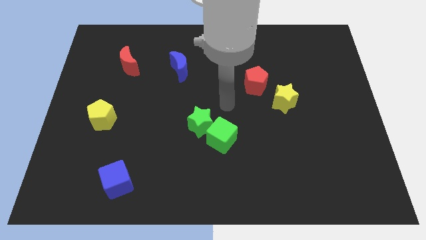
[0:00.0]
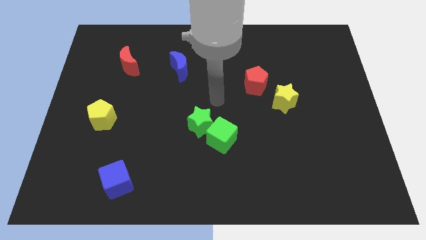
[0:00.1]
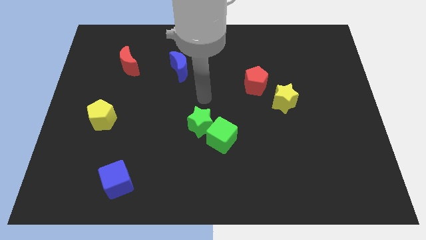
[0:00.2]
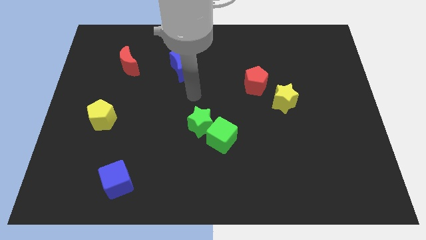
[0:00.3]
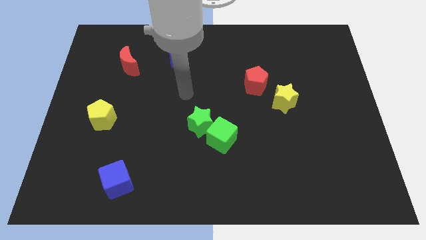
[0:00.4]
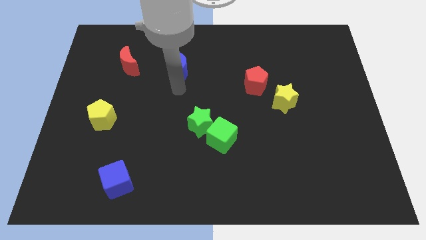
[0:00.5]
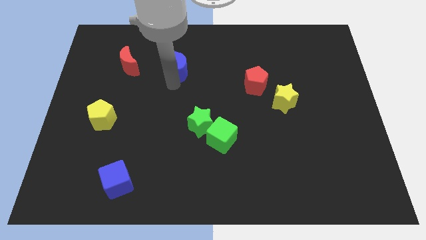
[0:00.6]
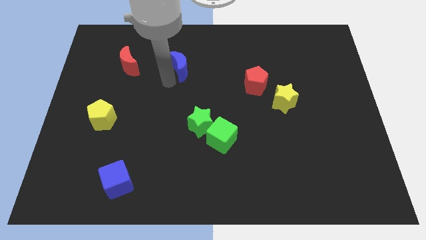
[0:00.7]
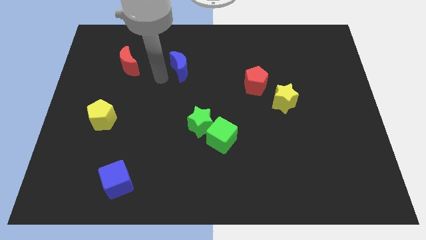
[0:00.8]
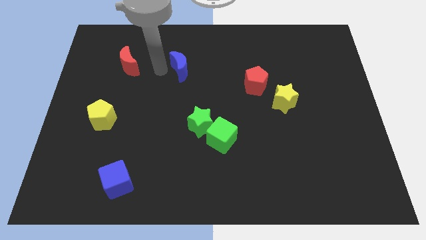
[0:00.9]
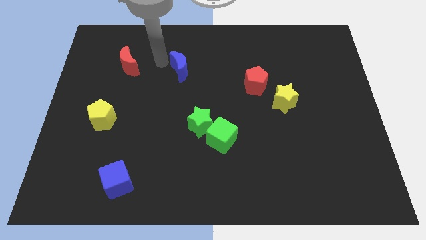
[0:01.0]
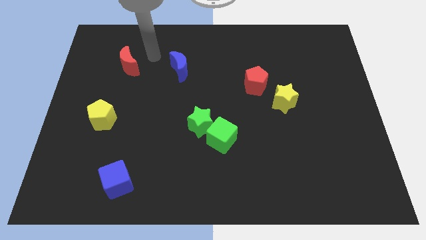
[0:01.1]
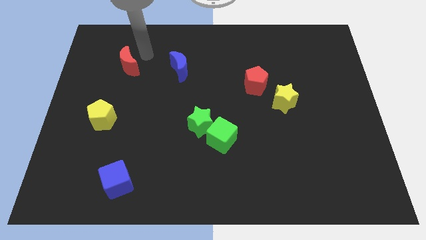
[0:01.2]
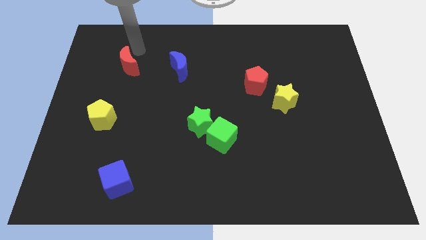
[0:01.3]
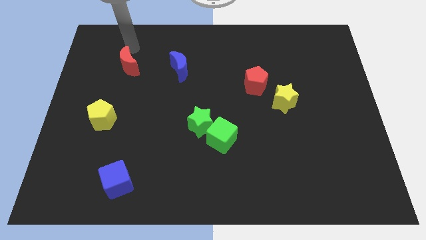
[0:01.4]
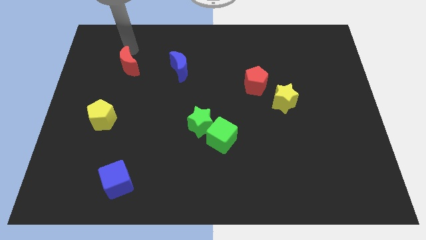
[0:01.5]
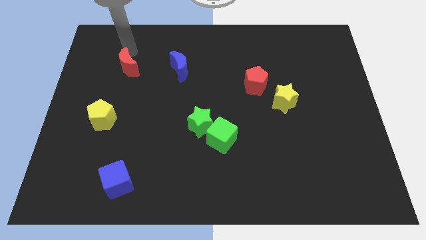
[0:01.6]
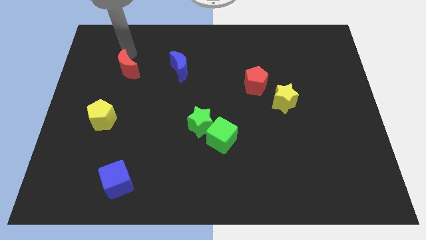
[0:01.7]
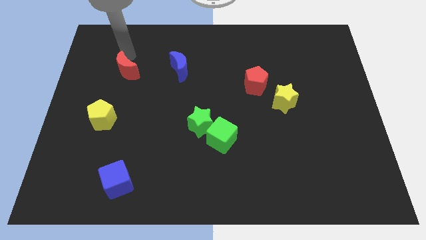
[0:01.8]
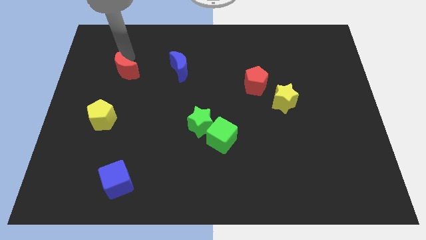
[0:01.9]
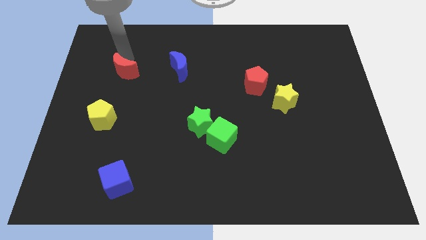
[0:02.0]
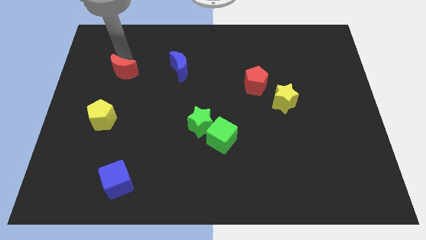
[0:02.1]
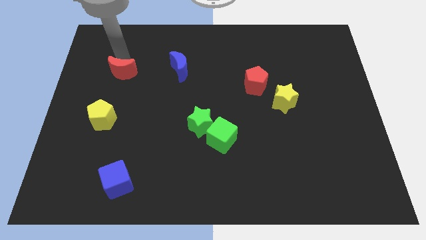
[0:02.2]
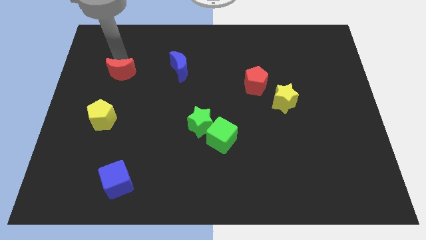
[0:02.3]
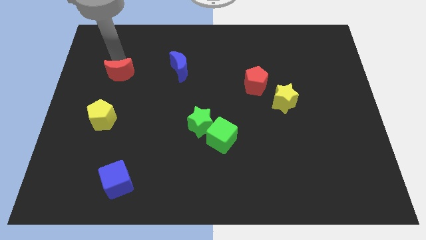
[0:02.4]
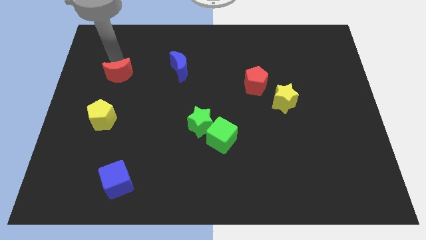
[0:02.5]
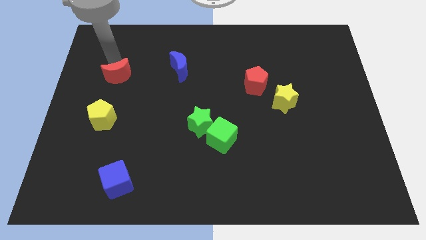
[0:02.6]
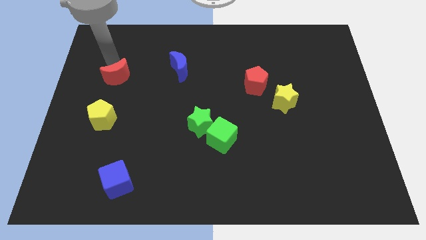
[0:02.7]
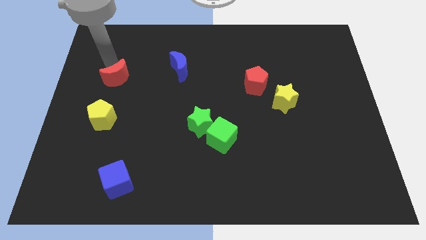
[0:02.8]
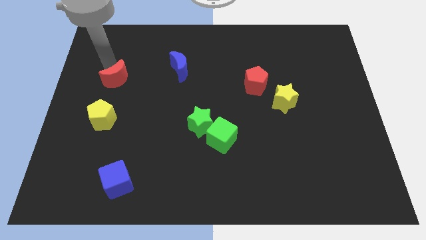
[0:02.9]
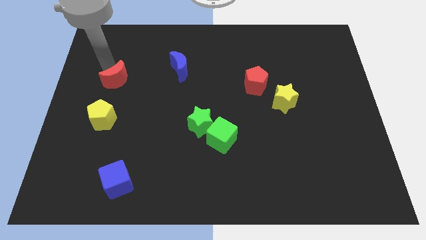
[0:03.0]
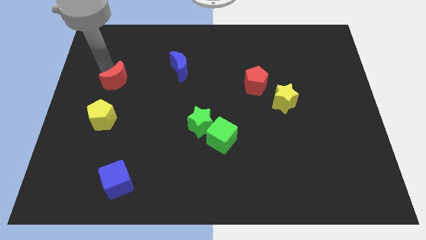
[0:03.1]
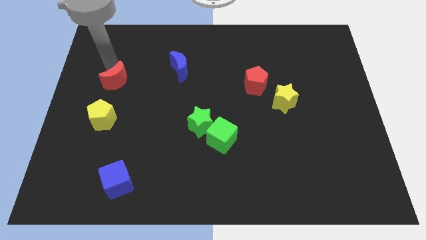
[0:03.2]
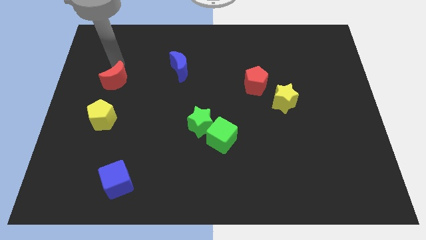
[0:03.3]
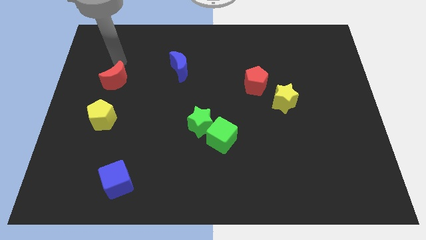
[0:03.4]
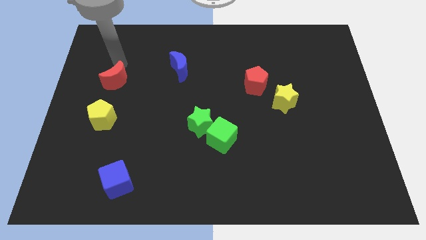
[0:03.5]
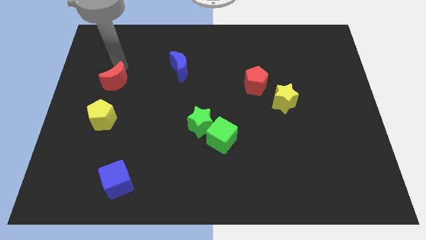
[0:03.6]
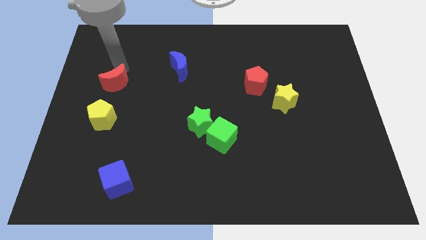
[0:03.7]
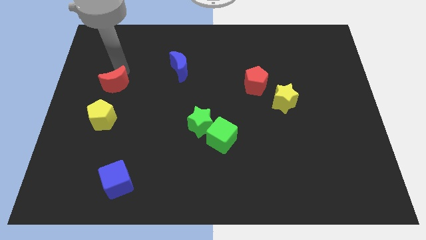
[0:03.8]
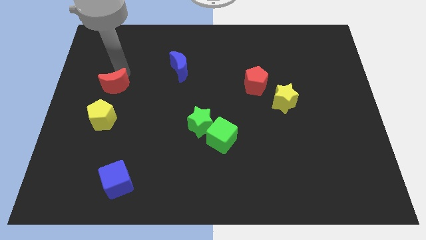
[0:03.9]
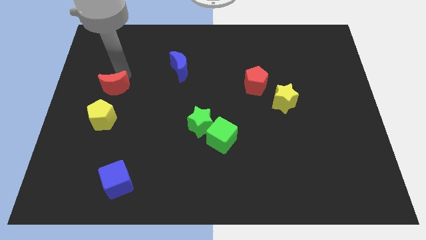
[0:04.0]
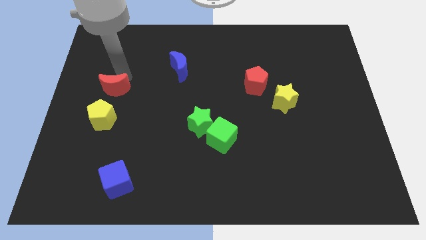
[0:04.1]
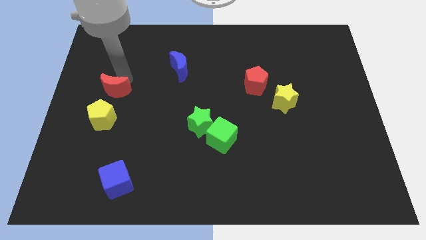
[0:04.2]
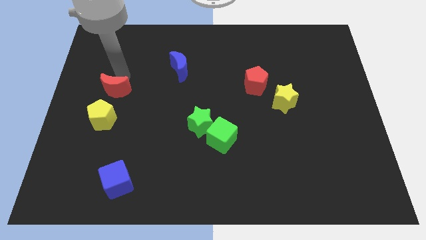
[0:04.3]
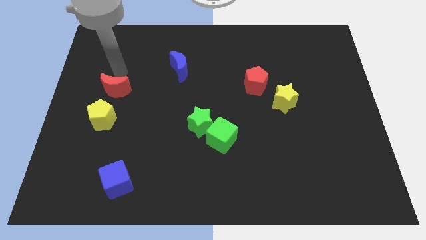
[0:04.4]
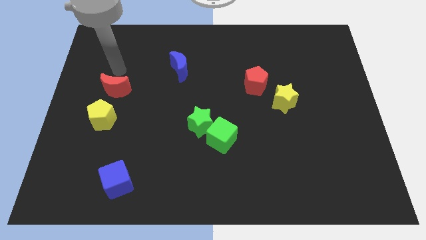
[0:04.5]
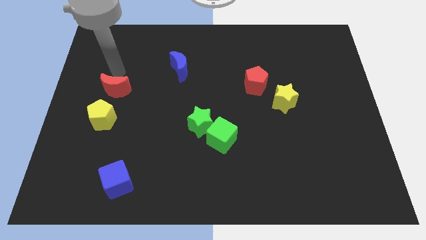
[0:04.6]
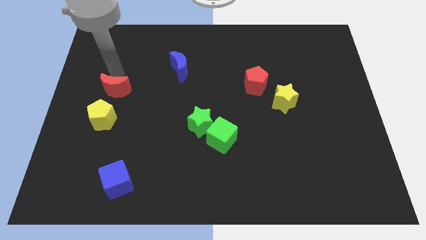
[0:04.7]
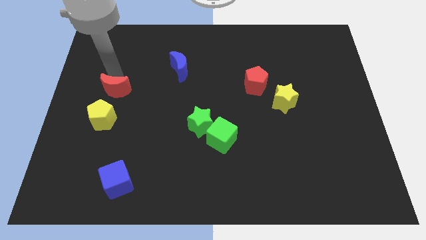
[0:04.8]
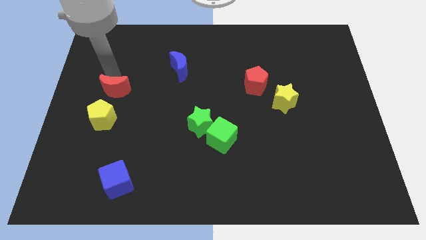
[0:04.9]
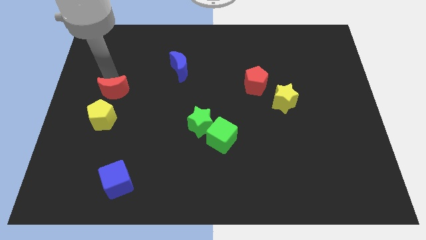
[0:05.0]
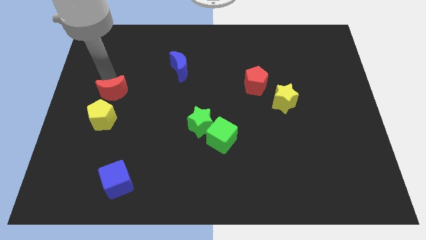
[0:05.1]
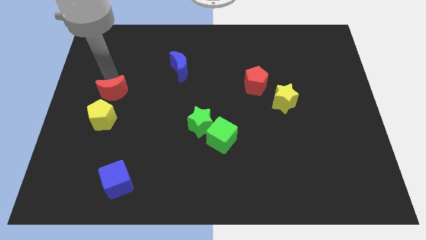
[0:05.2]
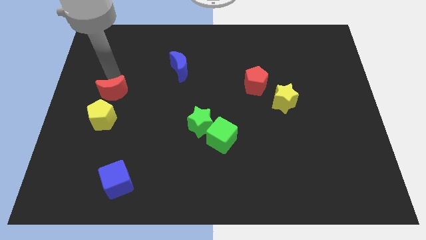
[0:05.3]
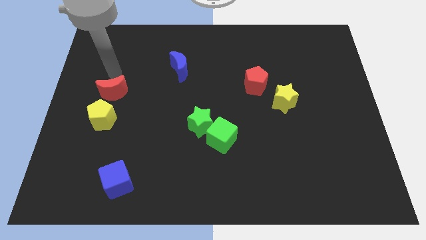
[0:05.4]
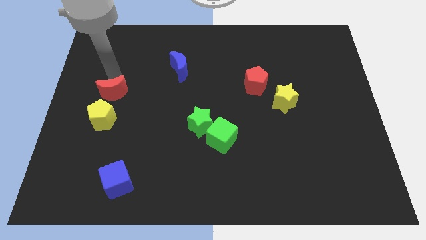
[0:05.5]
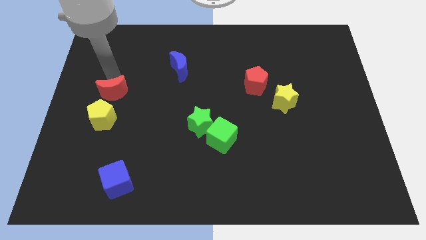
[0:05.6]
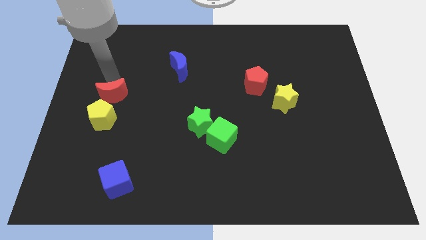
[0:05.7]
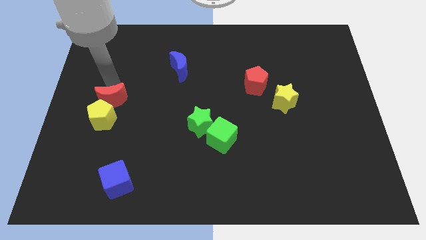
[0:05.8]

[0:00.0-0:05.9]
put the red moon towards the yellow pentagon

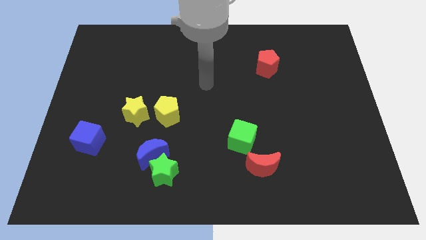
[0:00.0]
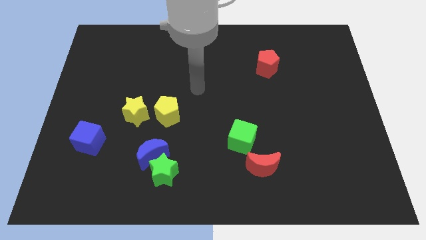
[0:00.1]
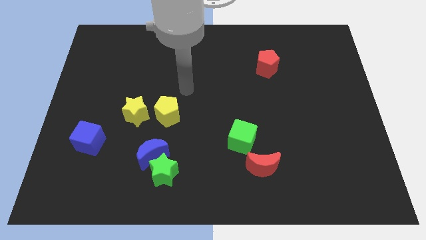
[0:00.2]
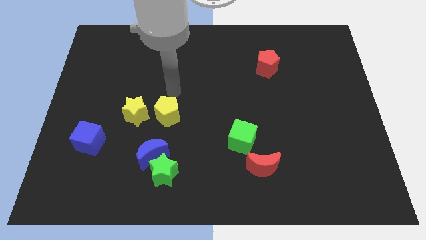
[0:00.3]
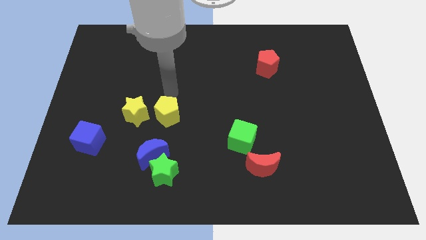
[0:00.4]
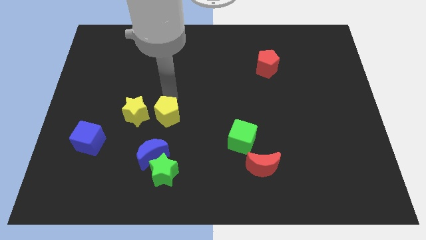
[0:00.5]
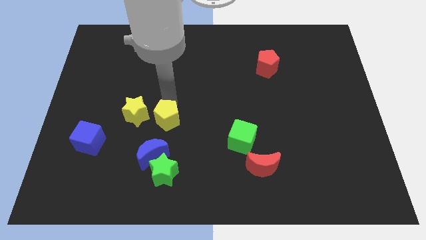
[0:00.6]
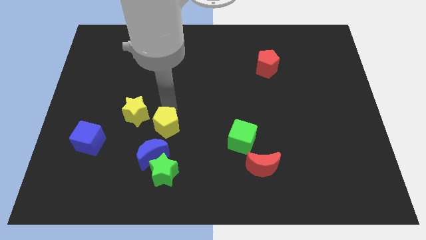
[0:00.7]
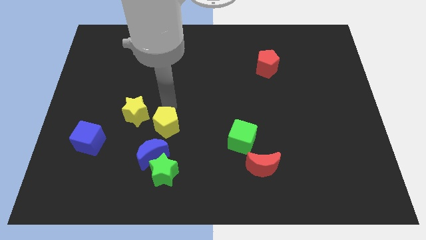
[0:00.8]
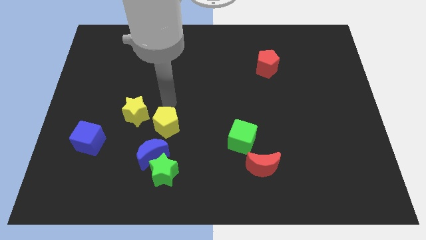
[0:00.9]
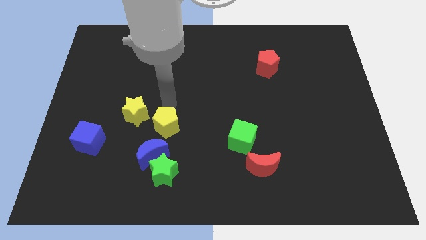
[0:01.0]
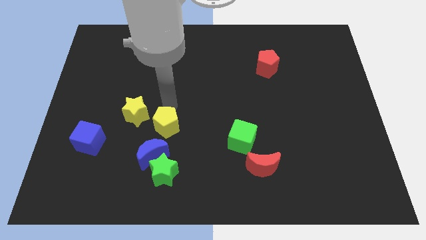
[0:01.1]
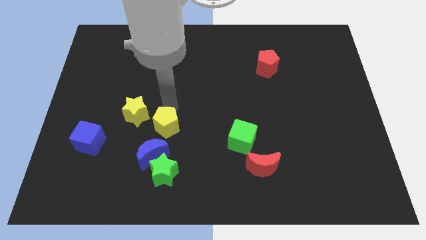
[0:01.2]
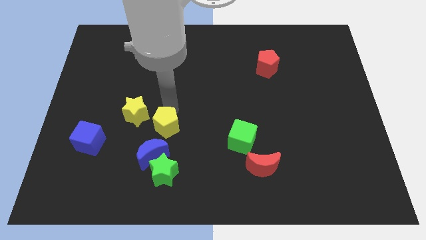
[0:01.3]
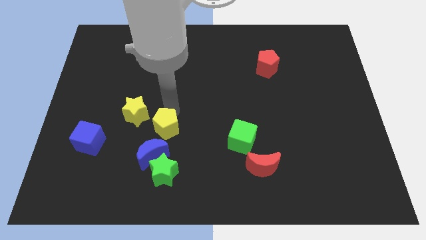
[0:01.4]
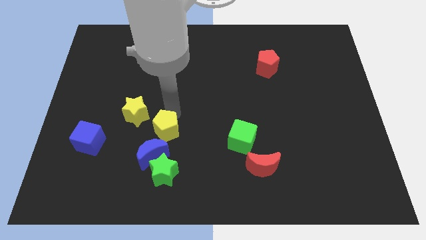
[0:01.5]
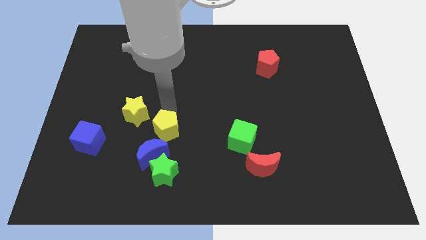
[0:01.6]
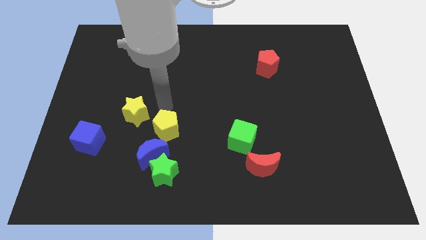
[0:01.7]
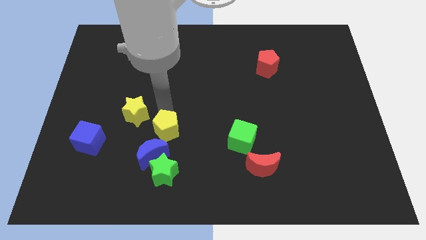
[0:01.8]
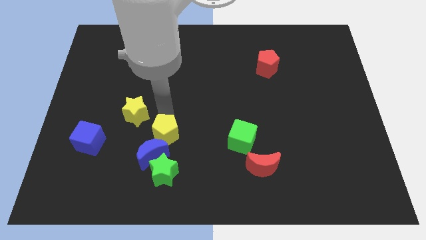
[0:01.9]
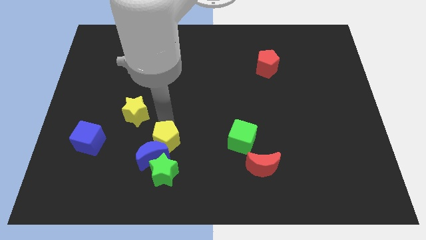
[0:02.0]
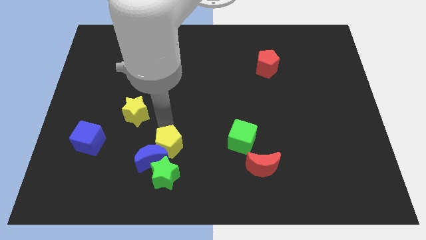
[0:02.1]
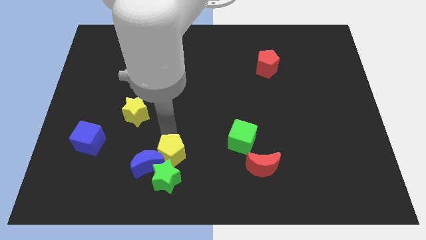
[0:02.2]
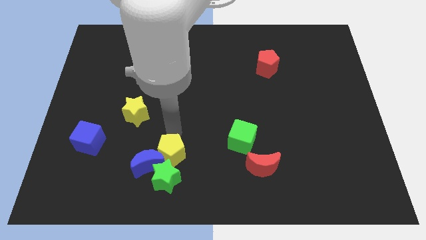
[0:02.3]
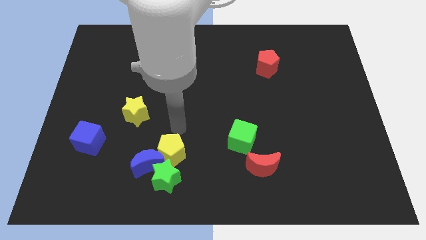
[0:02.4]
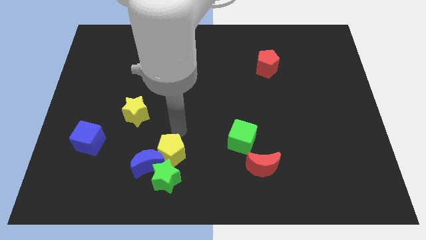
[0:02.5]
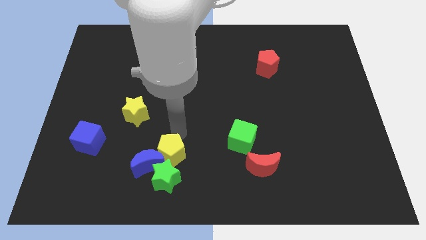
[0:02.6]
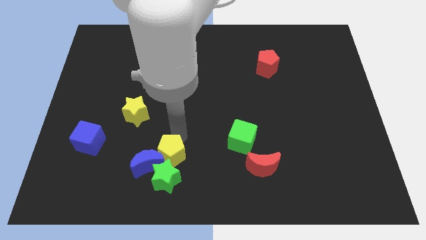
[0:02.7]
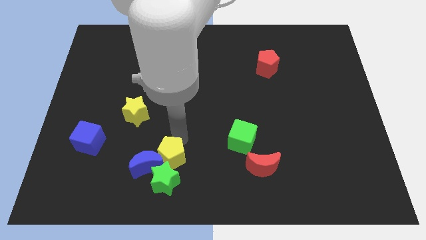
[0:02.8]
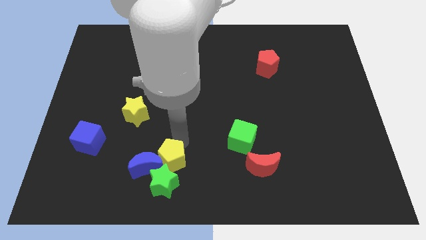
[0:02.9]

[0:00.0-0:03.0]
push the yellow pentagon close to the green star
